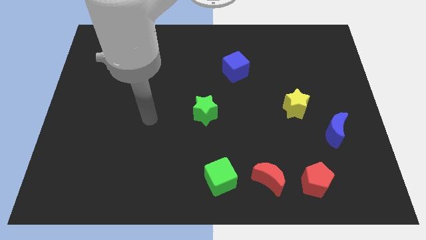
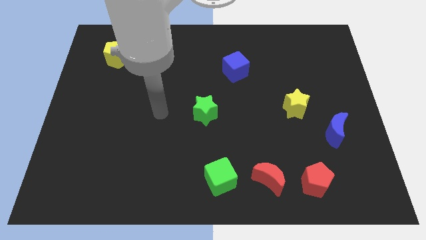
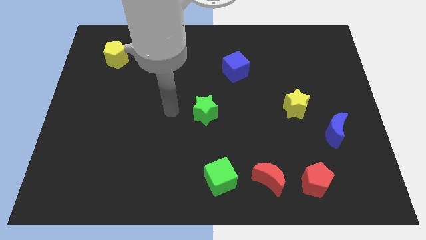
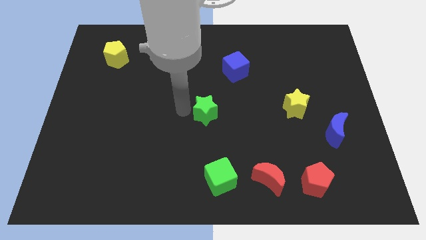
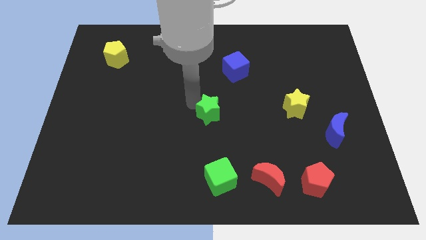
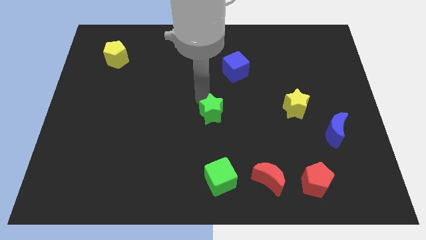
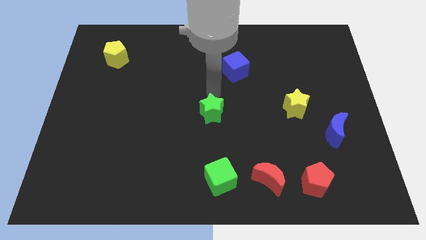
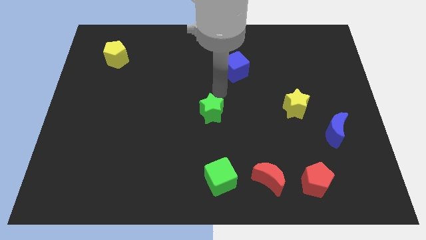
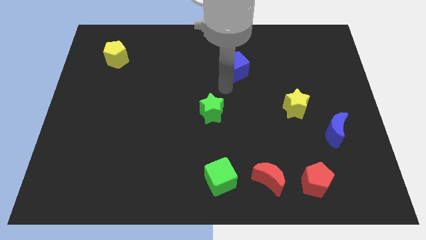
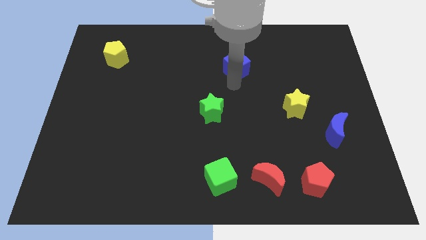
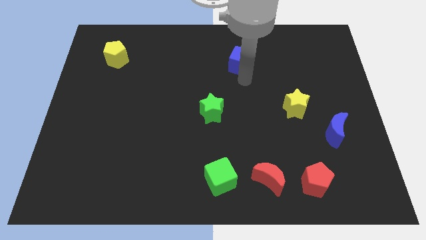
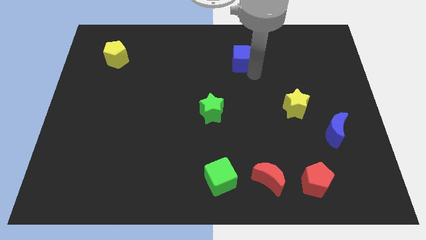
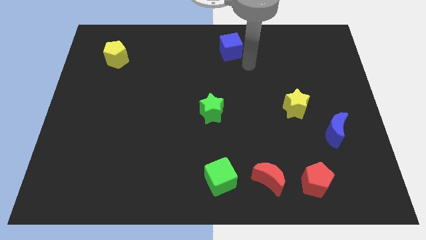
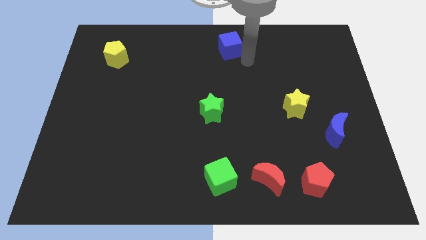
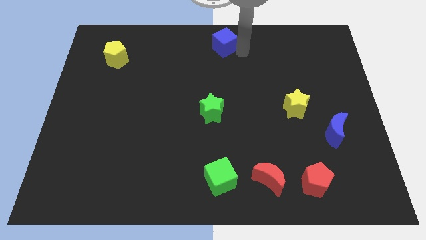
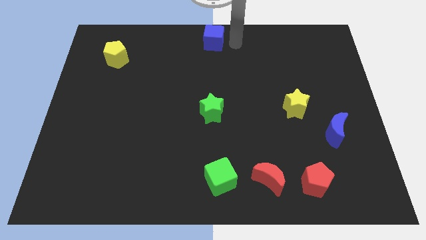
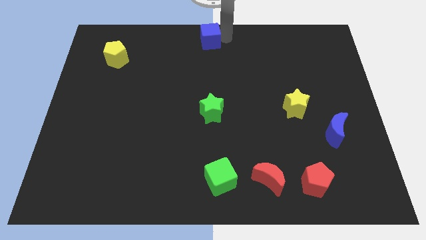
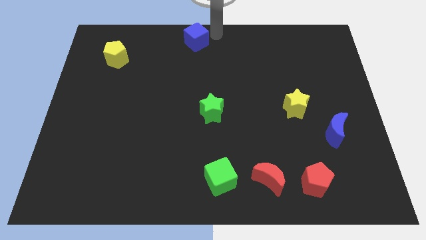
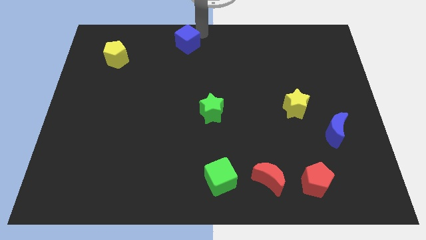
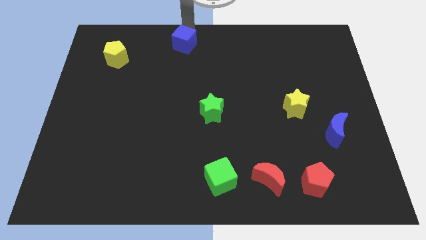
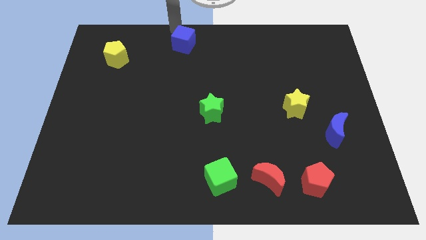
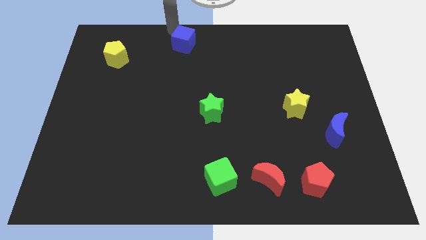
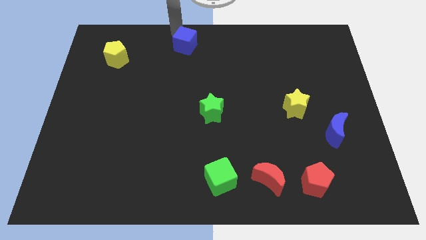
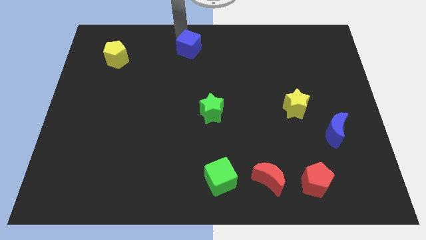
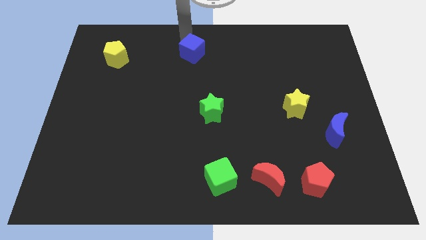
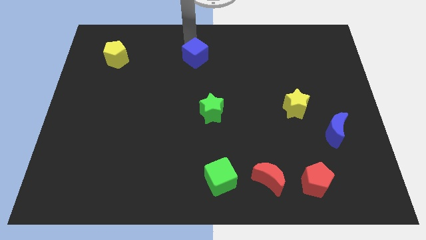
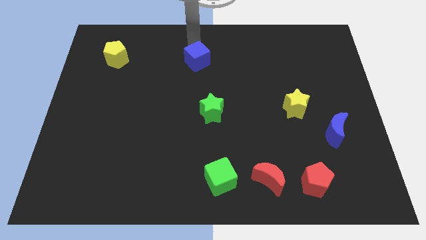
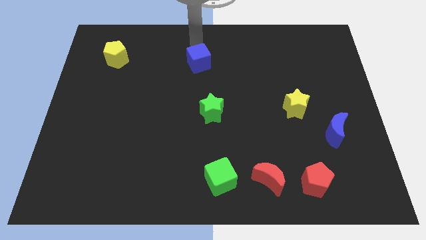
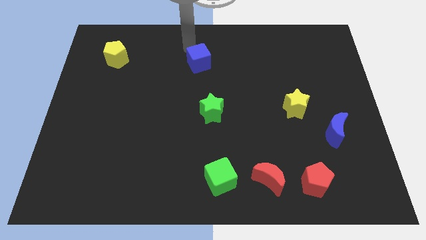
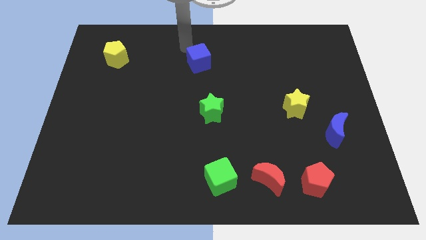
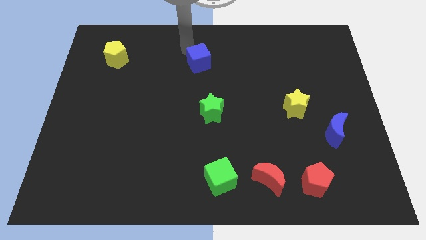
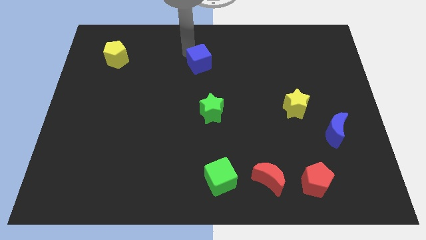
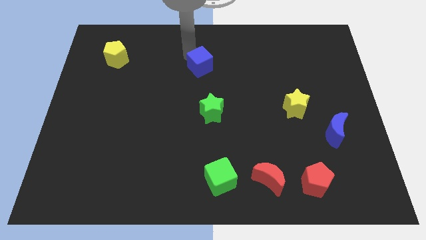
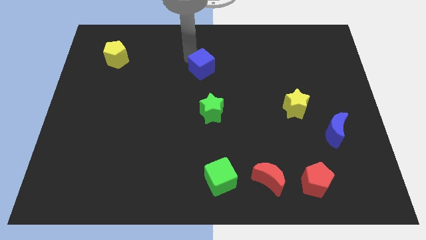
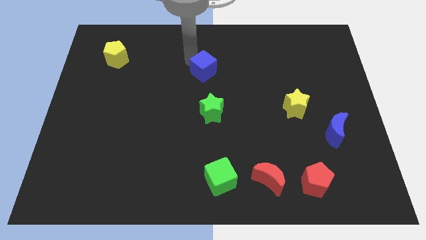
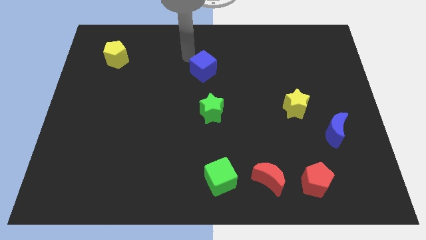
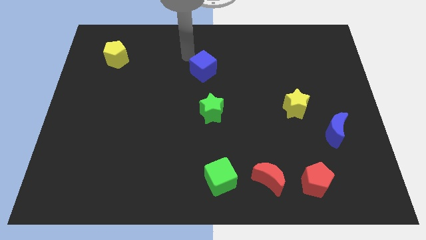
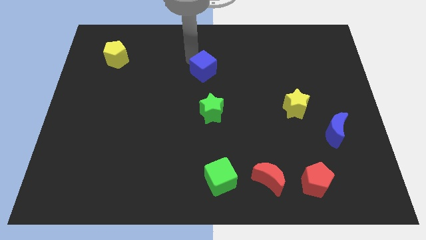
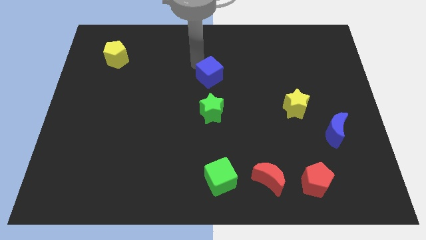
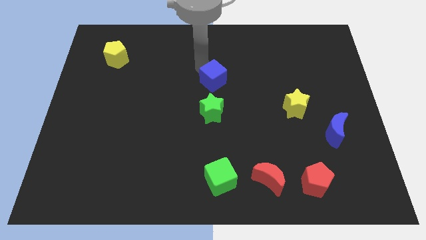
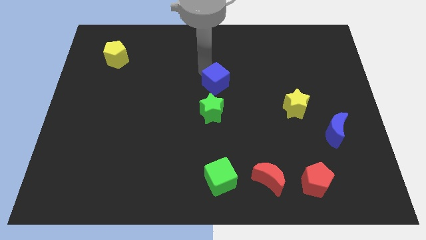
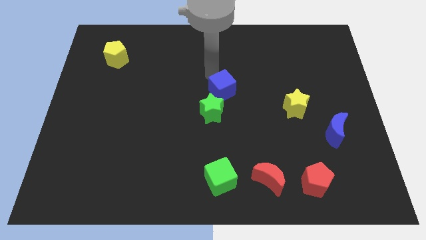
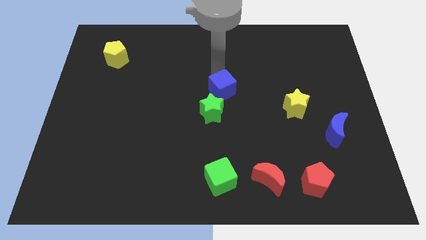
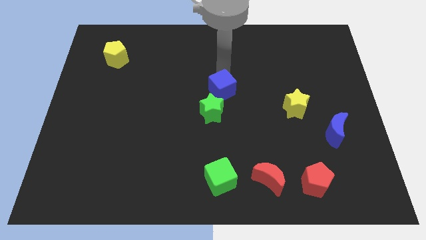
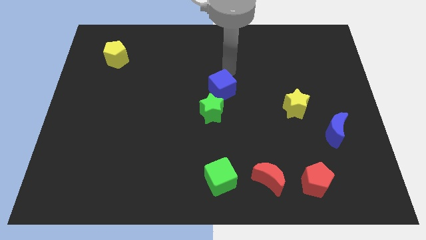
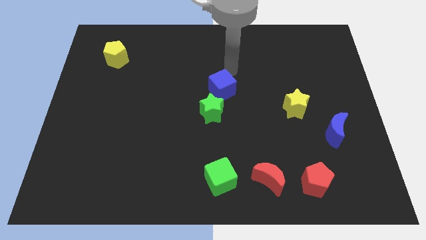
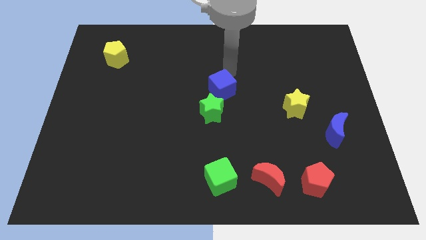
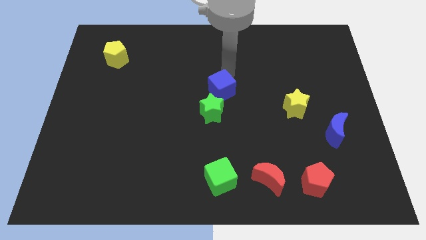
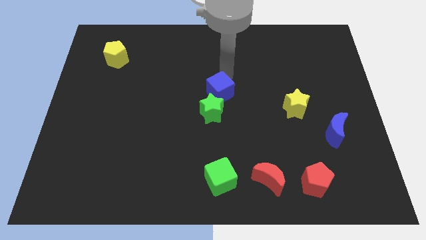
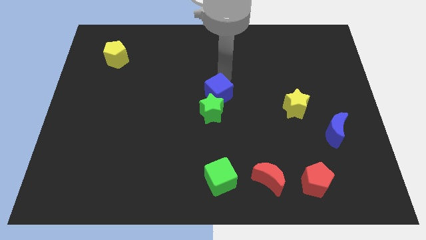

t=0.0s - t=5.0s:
push the blue cube towards the green star

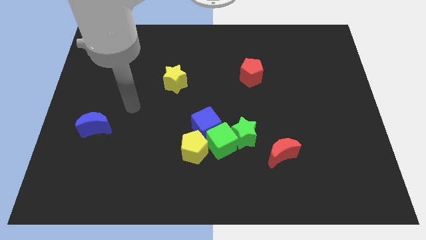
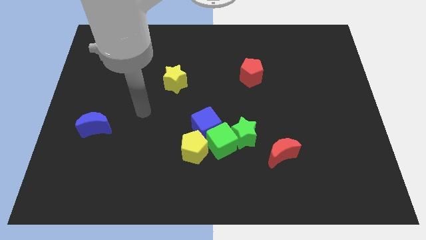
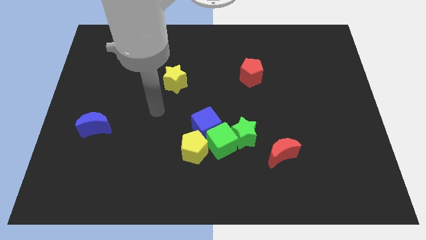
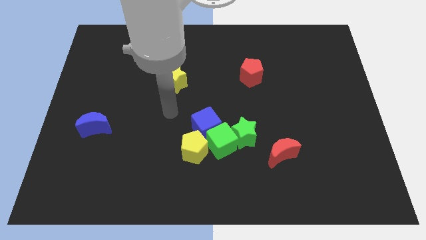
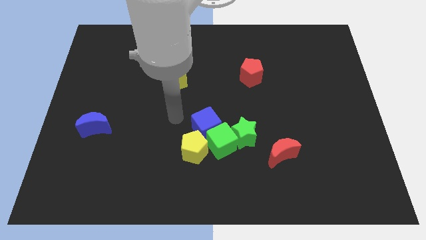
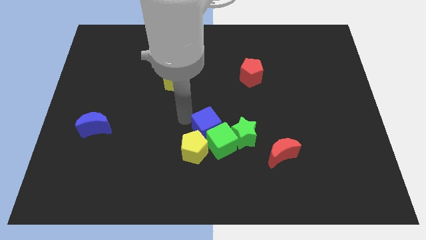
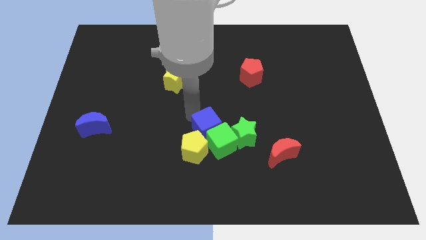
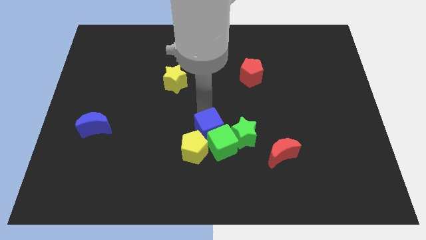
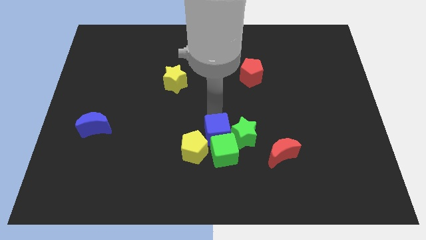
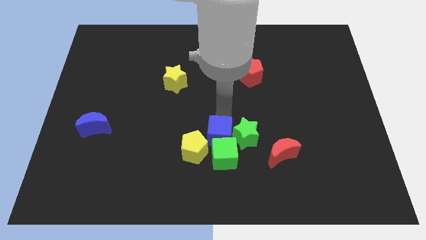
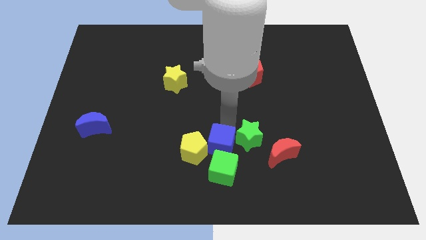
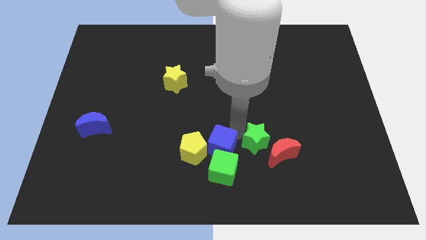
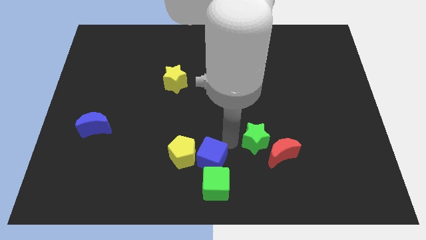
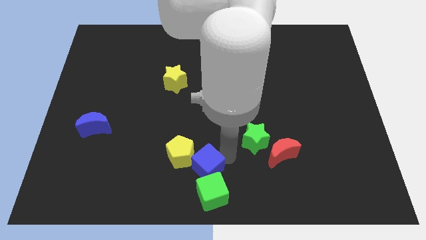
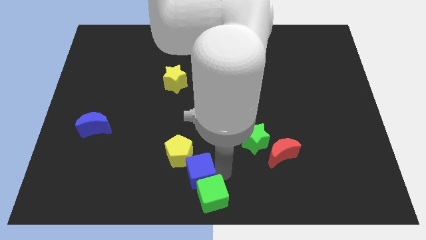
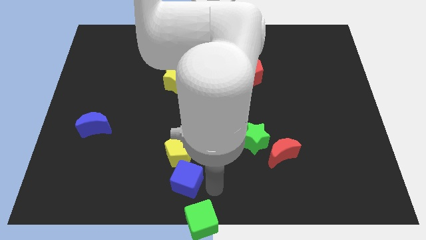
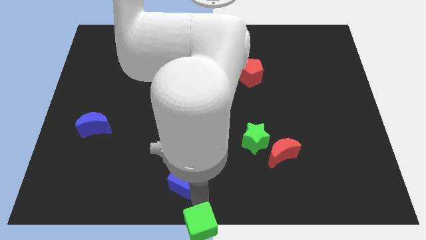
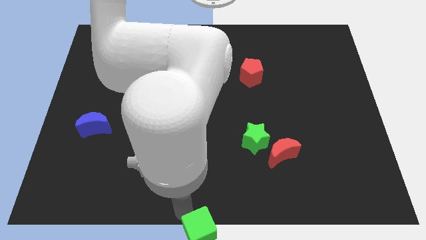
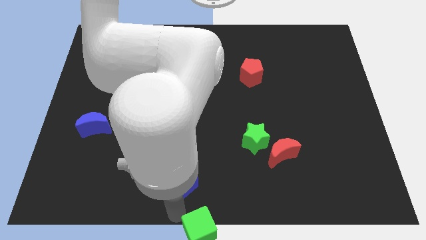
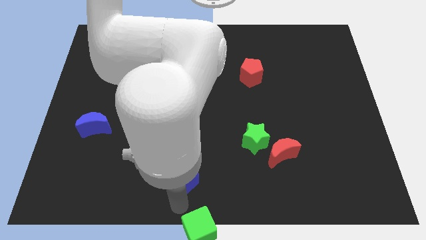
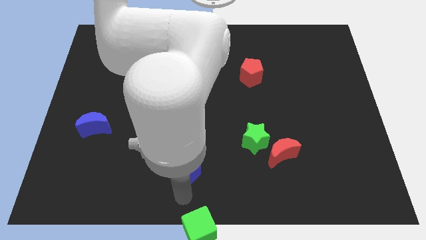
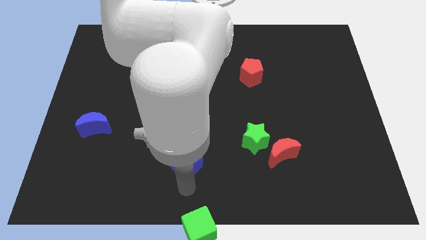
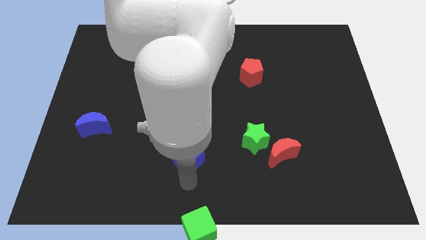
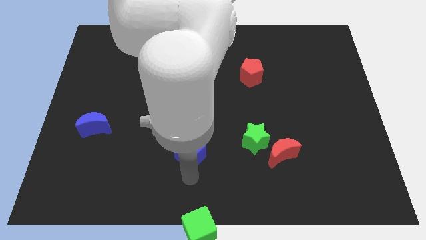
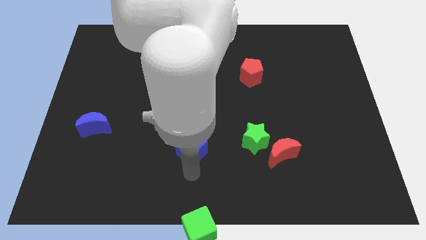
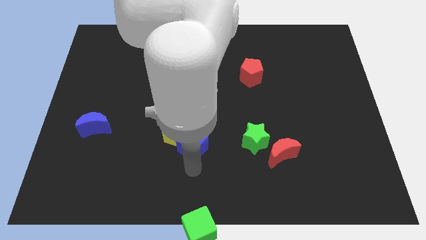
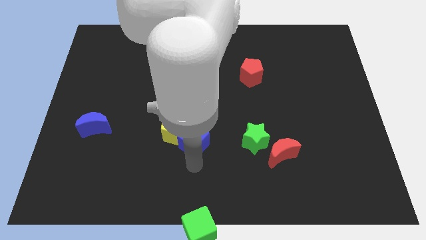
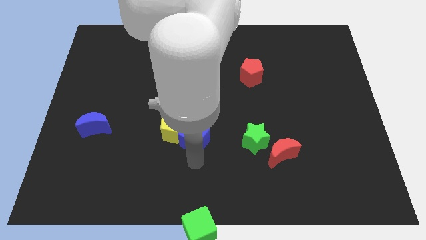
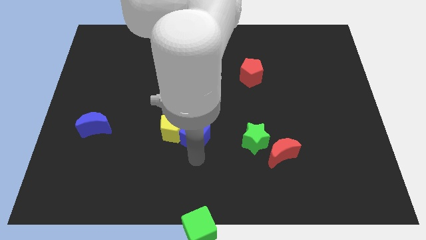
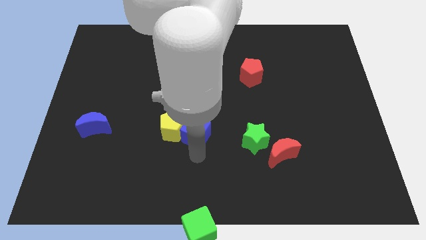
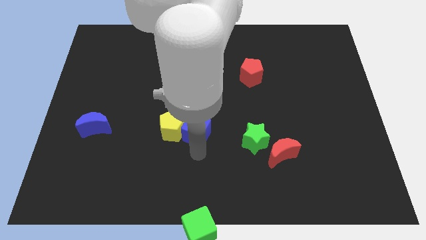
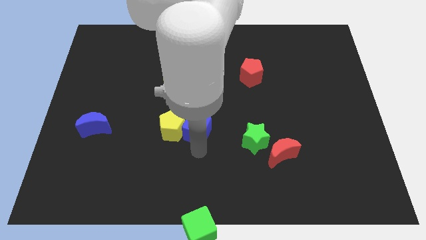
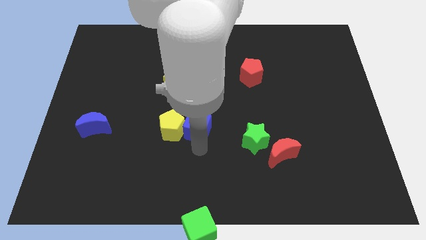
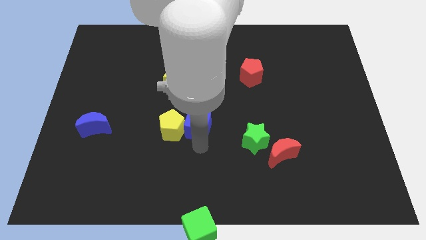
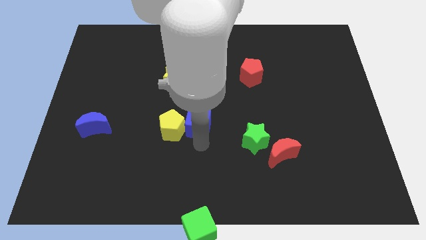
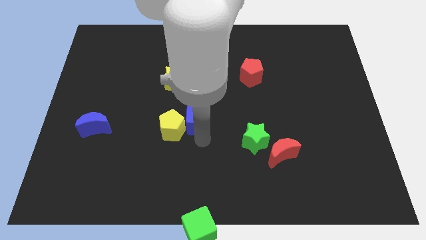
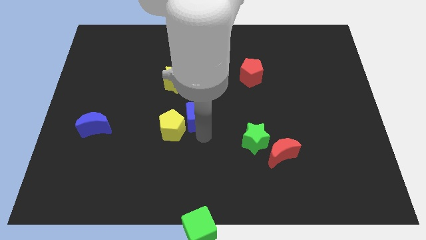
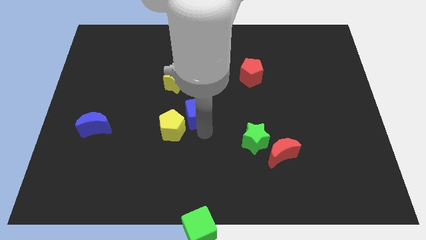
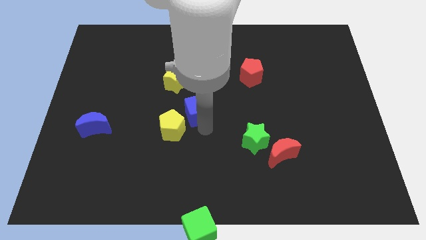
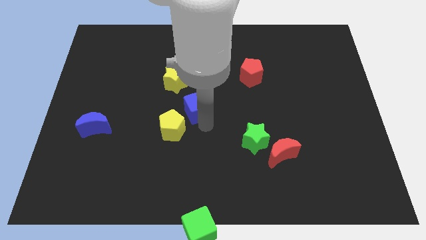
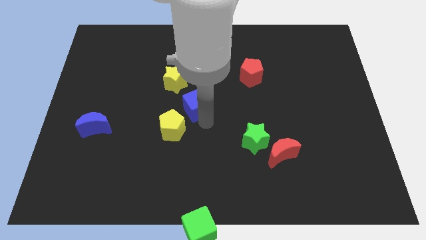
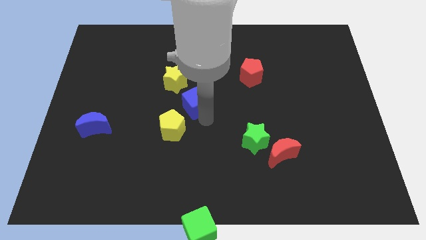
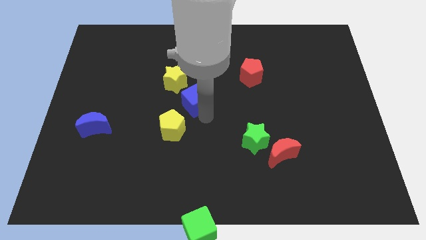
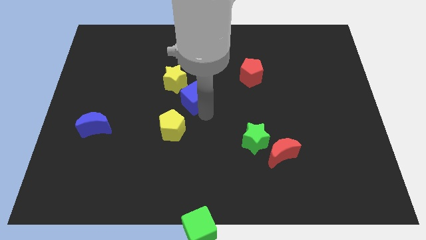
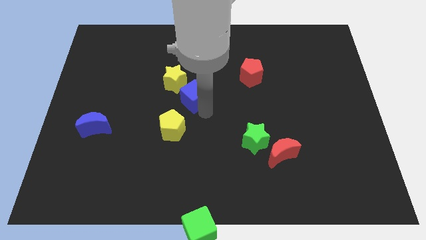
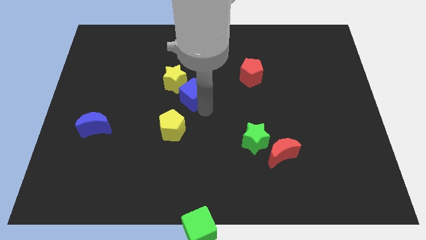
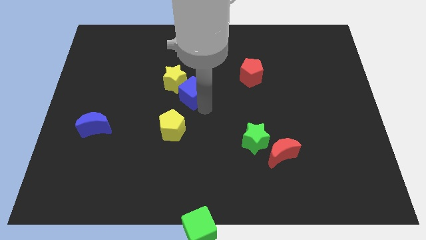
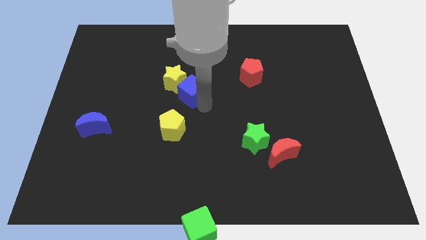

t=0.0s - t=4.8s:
slide the blue cube next to the yellow star
